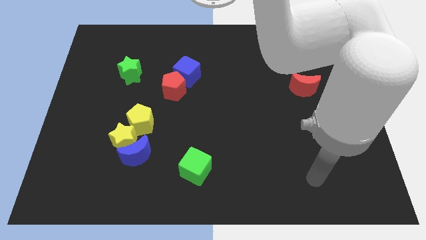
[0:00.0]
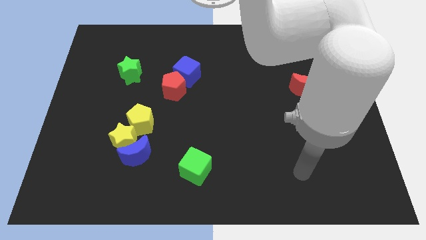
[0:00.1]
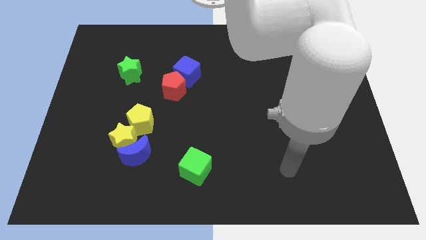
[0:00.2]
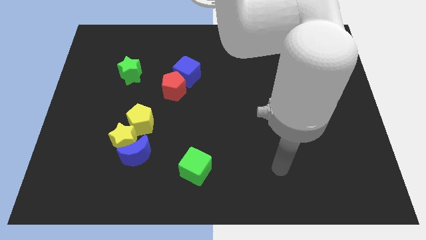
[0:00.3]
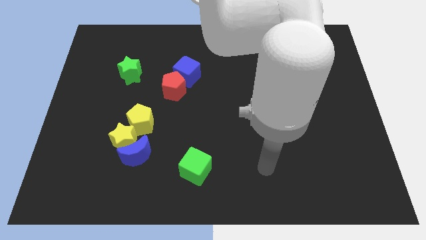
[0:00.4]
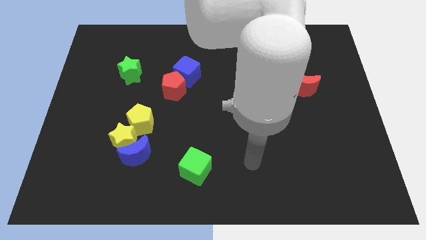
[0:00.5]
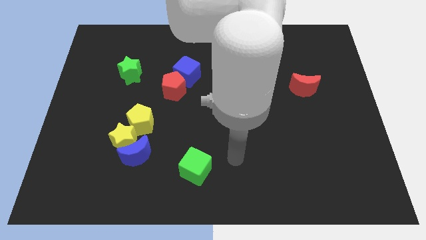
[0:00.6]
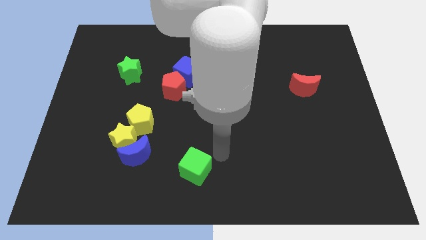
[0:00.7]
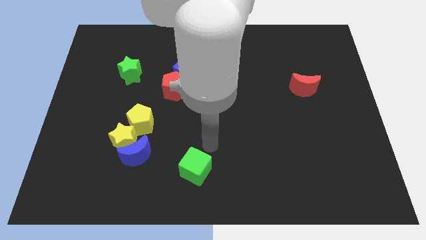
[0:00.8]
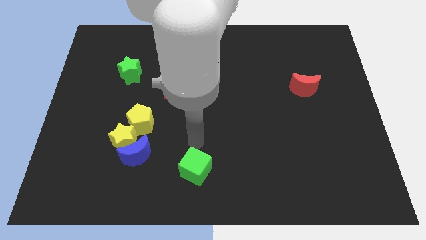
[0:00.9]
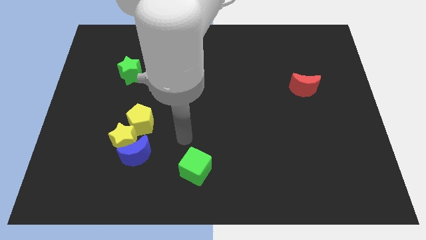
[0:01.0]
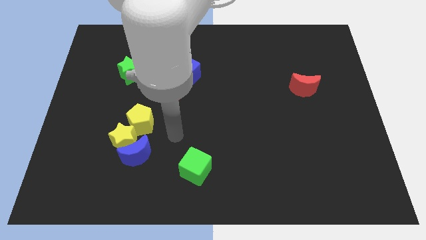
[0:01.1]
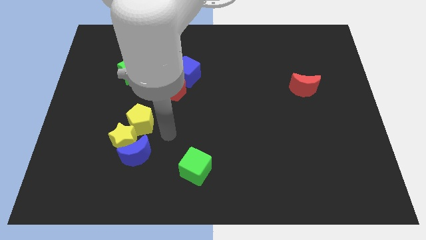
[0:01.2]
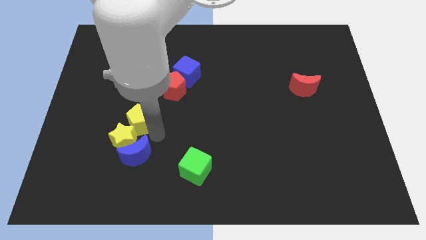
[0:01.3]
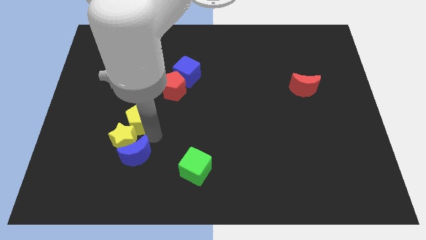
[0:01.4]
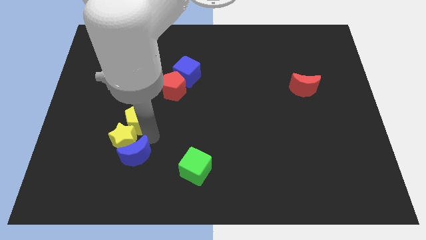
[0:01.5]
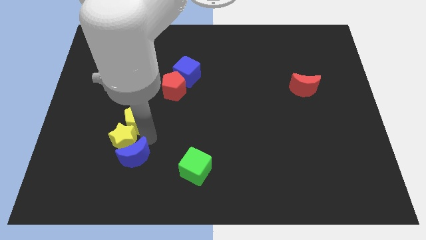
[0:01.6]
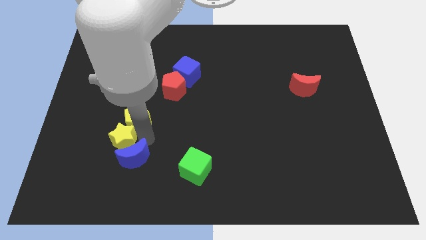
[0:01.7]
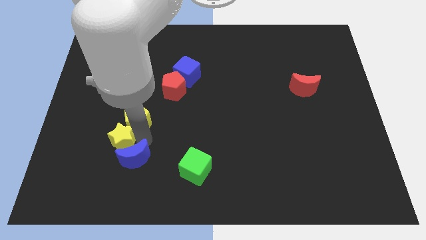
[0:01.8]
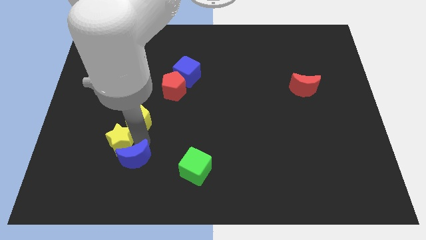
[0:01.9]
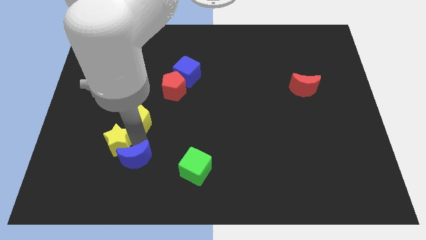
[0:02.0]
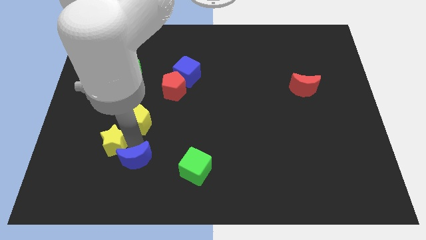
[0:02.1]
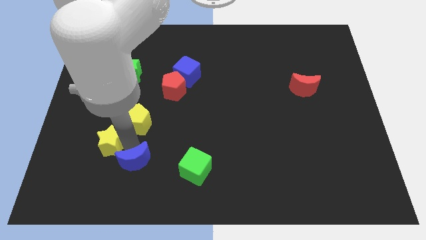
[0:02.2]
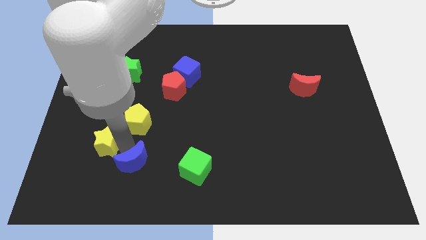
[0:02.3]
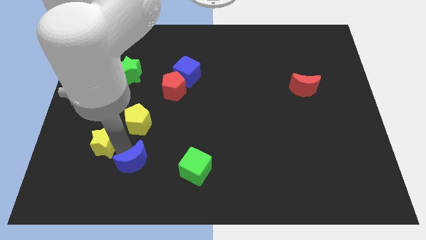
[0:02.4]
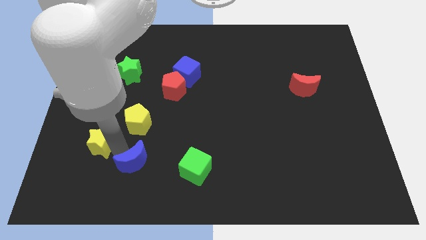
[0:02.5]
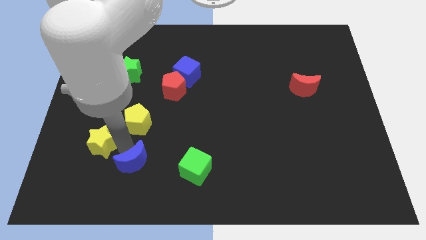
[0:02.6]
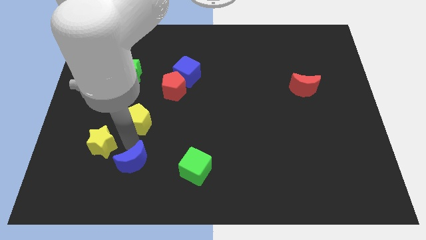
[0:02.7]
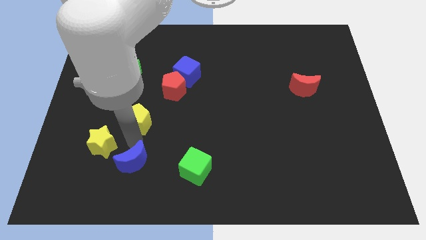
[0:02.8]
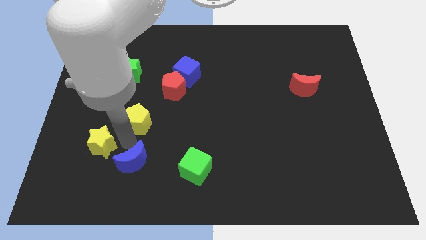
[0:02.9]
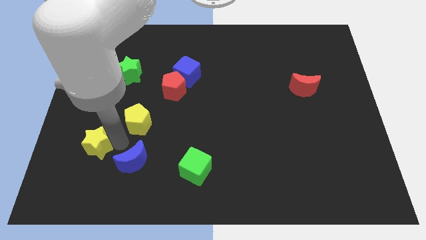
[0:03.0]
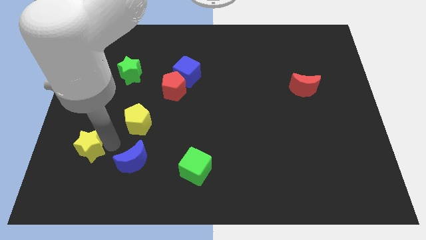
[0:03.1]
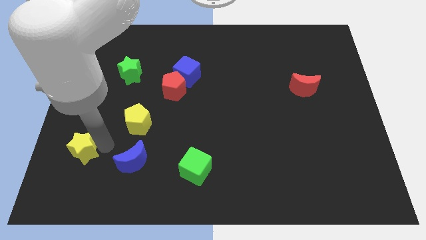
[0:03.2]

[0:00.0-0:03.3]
separate the yellow star from the blue moon and yellow pentagon

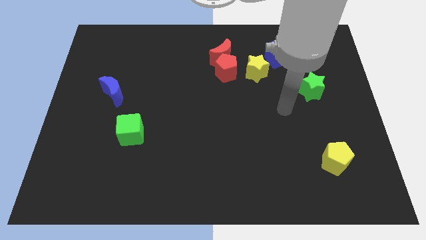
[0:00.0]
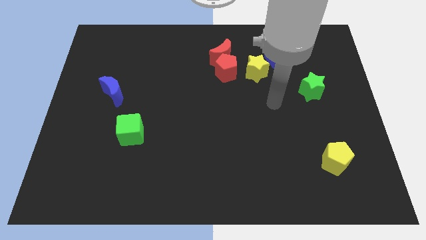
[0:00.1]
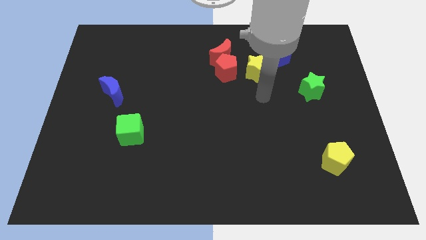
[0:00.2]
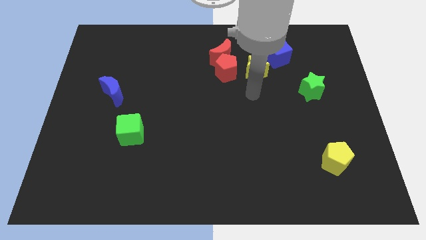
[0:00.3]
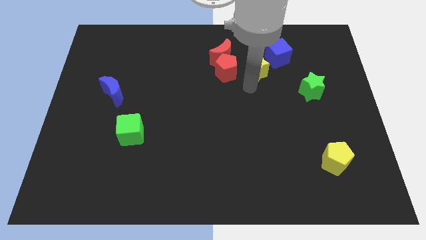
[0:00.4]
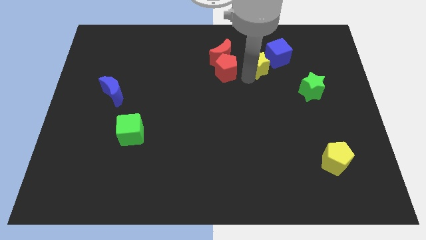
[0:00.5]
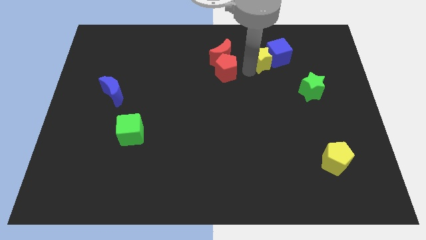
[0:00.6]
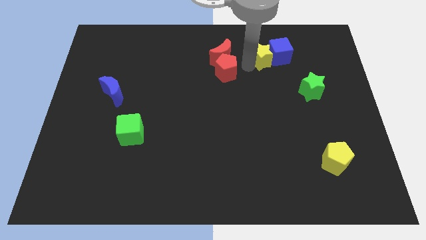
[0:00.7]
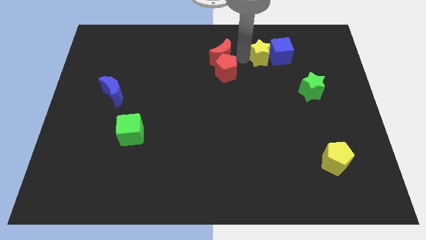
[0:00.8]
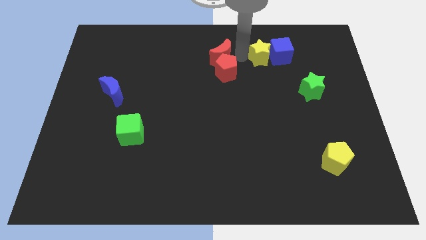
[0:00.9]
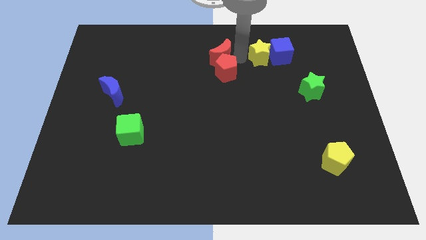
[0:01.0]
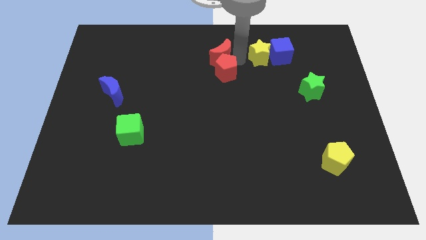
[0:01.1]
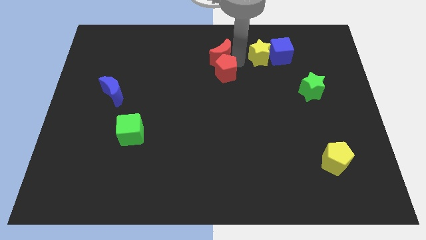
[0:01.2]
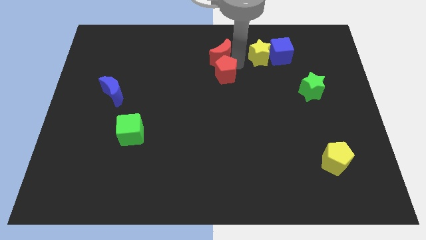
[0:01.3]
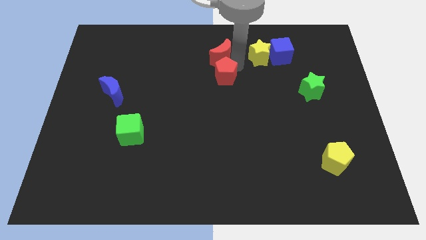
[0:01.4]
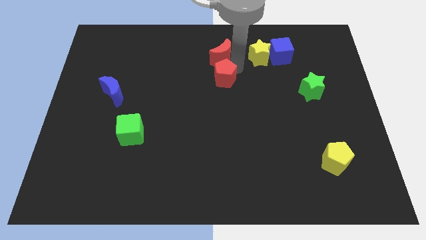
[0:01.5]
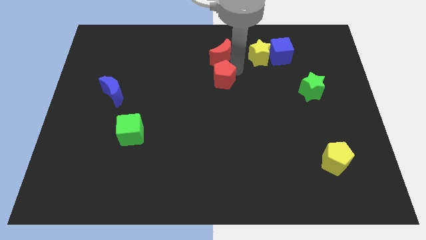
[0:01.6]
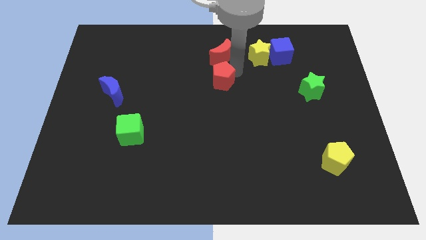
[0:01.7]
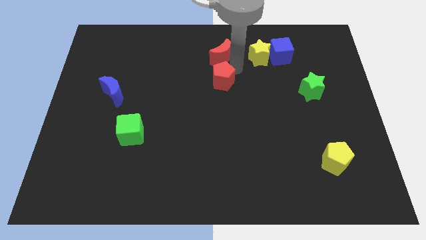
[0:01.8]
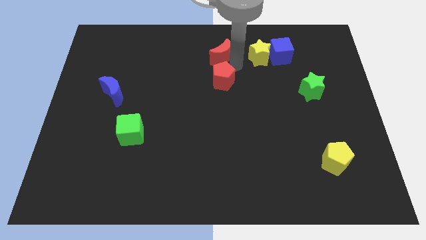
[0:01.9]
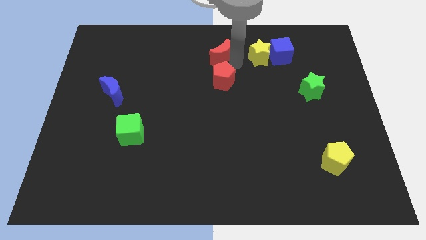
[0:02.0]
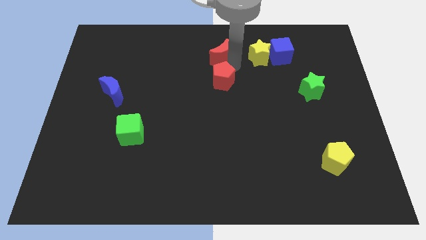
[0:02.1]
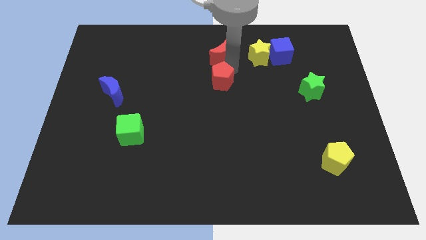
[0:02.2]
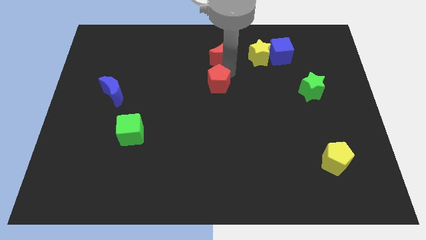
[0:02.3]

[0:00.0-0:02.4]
pull the red pentagon apart from the red moon and yellow star

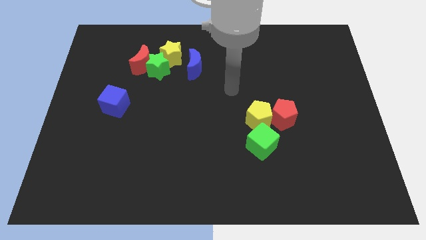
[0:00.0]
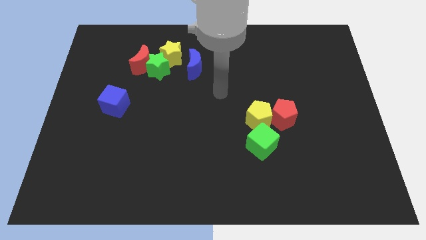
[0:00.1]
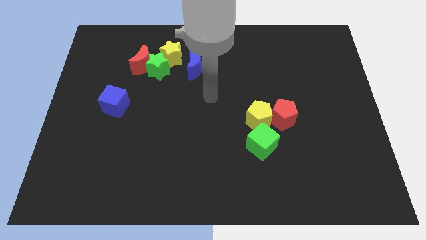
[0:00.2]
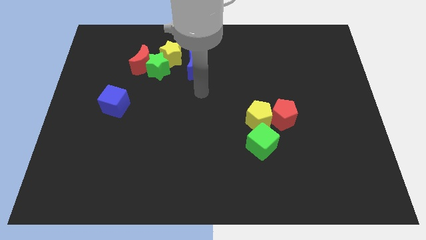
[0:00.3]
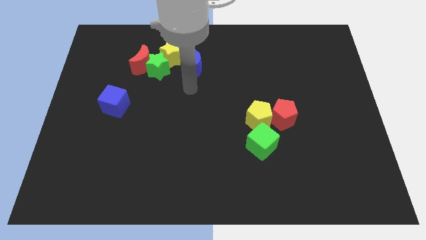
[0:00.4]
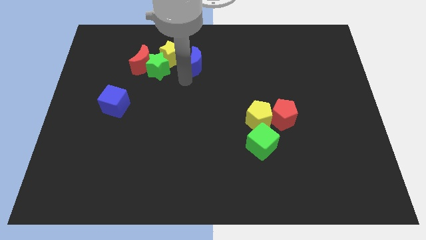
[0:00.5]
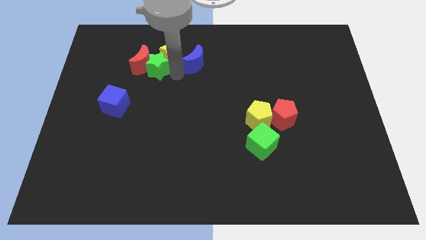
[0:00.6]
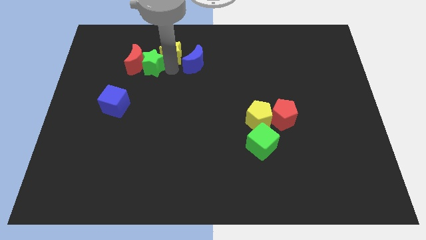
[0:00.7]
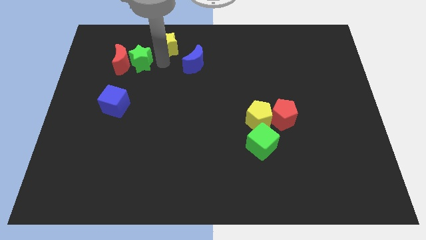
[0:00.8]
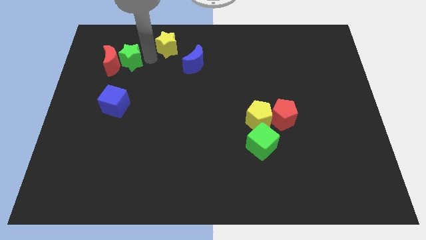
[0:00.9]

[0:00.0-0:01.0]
move the red moon away from the green star and yellow star

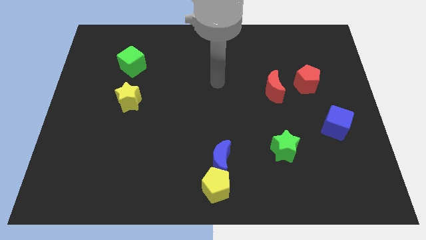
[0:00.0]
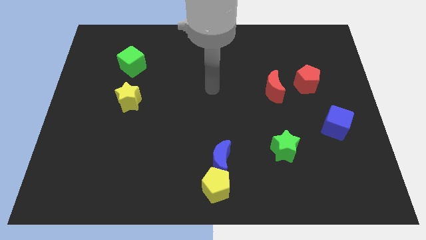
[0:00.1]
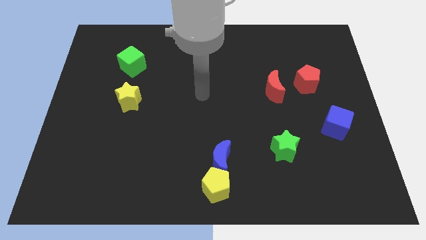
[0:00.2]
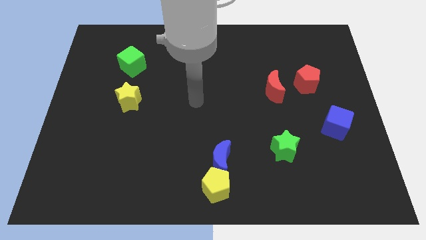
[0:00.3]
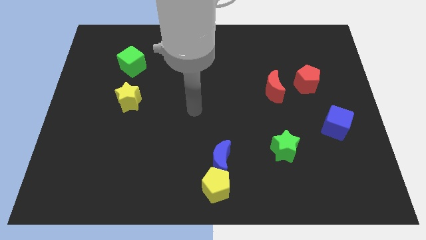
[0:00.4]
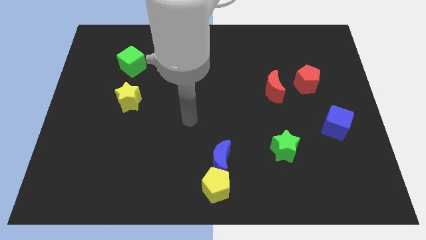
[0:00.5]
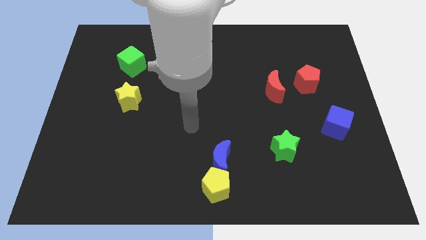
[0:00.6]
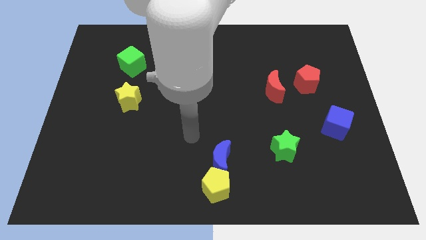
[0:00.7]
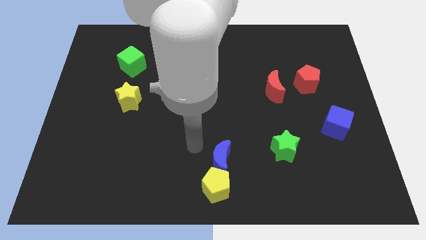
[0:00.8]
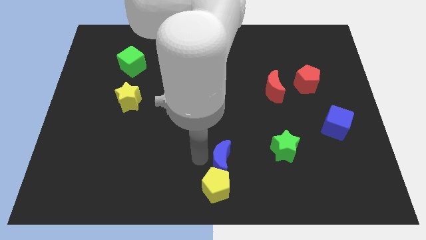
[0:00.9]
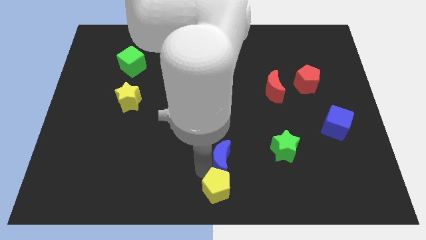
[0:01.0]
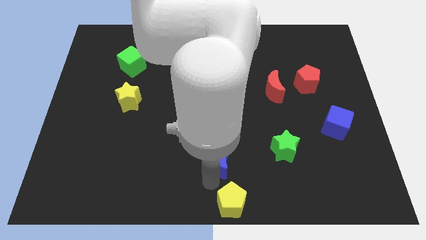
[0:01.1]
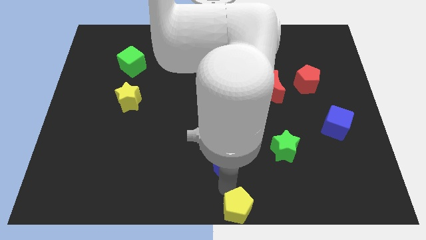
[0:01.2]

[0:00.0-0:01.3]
pull the blue moon apart from the yellow pentagon

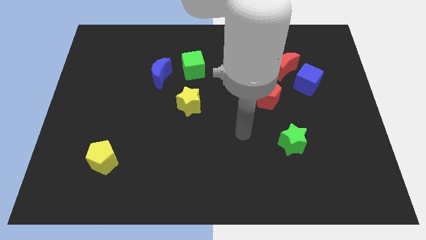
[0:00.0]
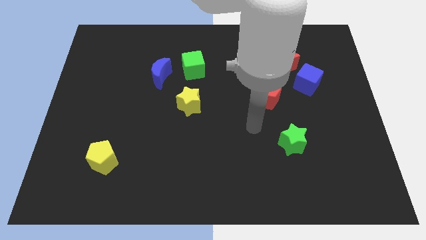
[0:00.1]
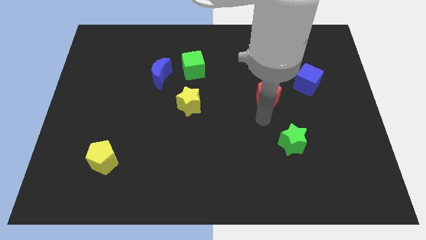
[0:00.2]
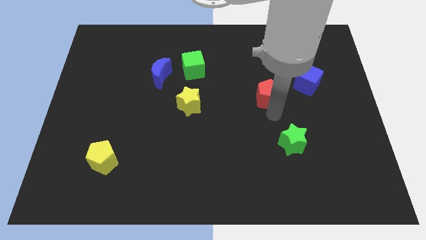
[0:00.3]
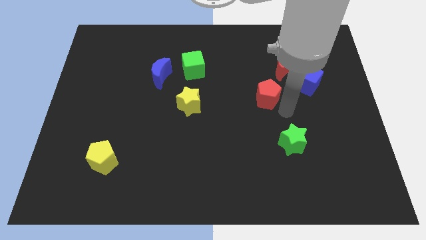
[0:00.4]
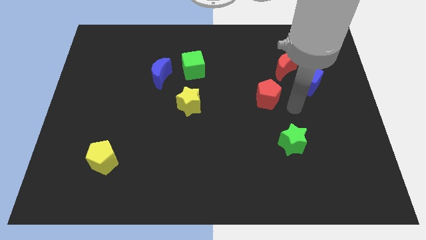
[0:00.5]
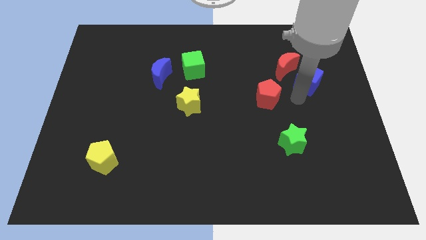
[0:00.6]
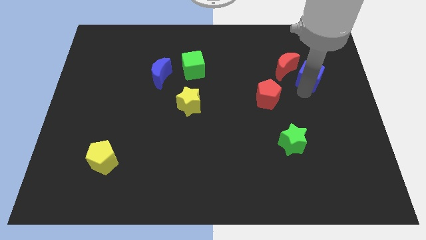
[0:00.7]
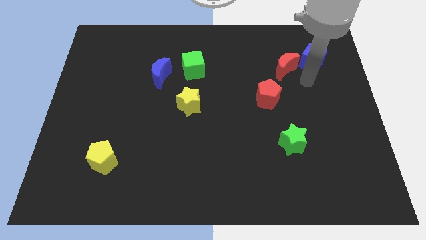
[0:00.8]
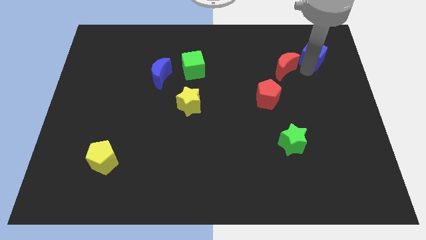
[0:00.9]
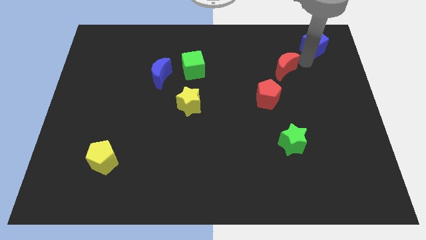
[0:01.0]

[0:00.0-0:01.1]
separate the red moon from the blue cube

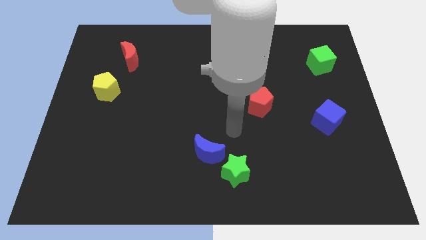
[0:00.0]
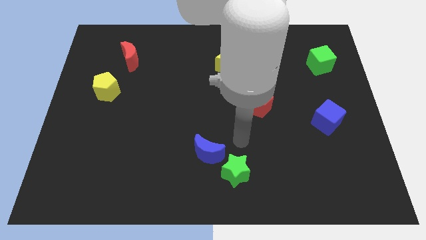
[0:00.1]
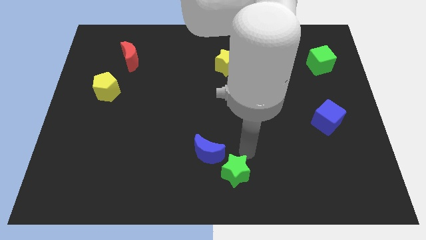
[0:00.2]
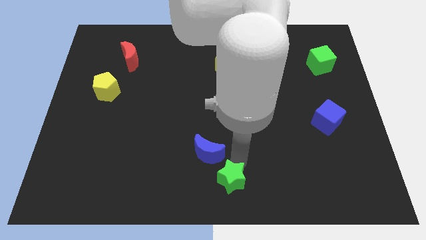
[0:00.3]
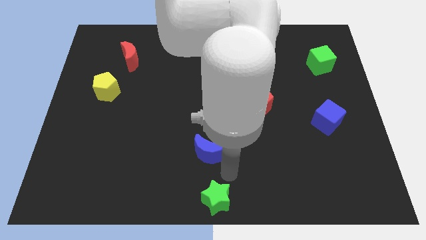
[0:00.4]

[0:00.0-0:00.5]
move the blue moon away from the green star
